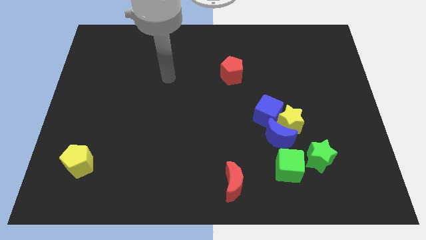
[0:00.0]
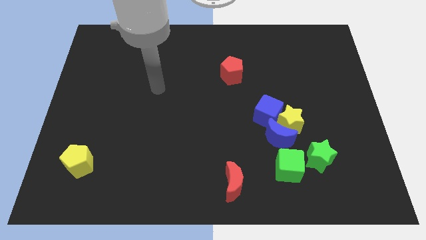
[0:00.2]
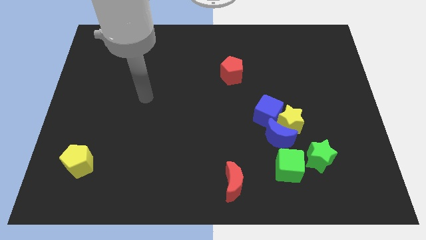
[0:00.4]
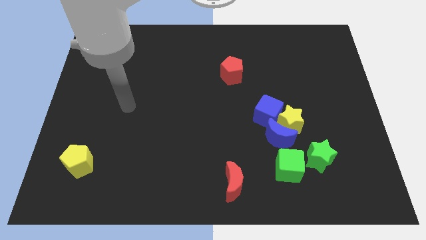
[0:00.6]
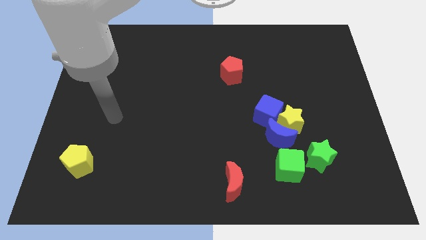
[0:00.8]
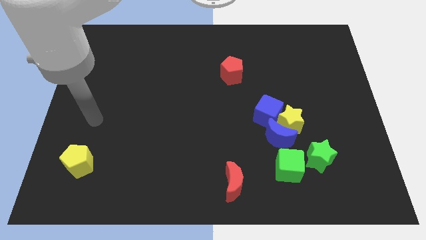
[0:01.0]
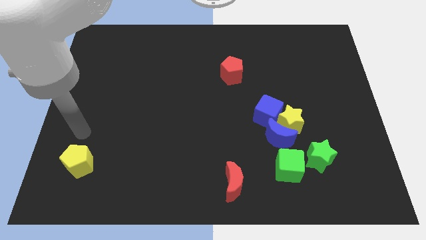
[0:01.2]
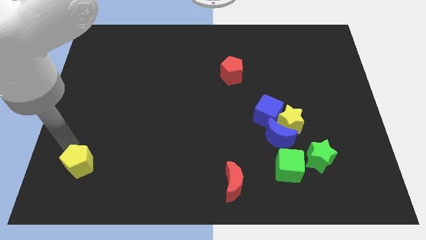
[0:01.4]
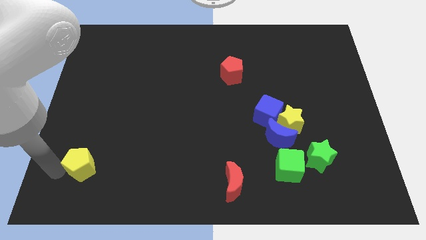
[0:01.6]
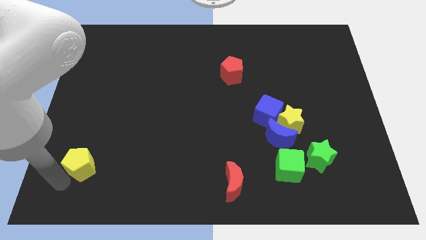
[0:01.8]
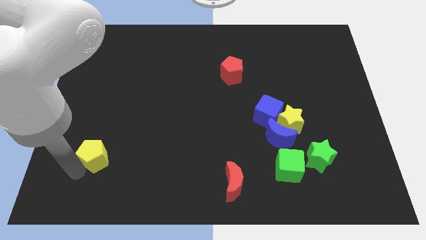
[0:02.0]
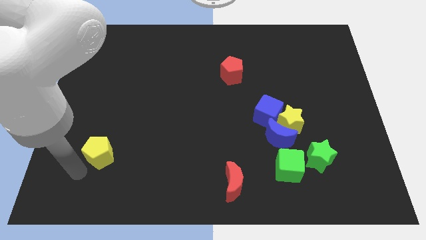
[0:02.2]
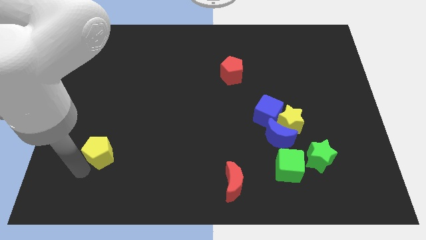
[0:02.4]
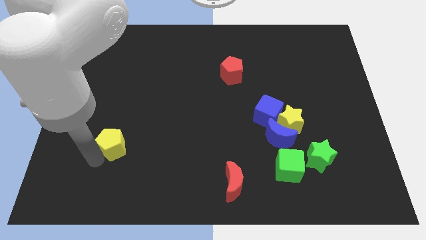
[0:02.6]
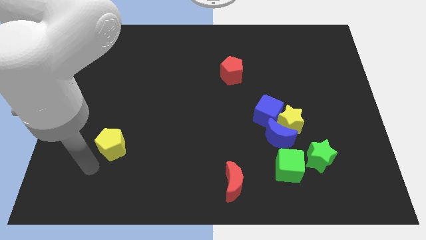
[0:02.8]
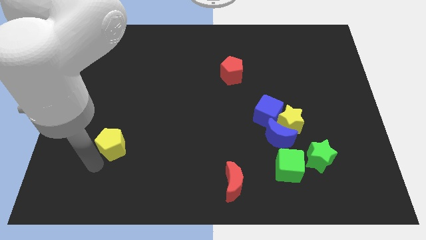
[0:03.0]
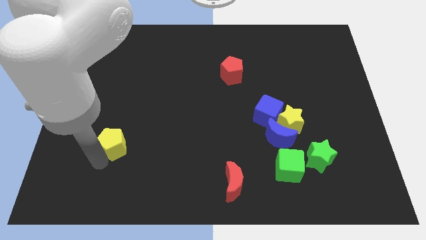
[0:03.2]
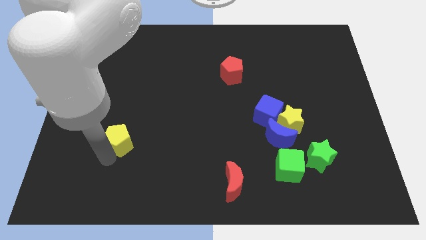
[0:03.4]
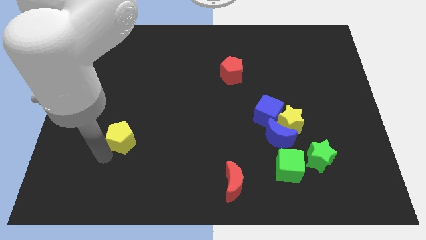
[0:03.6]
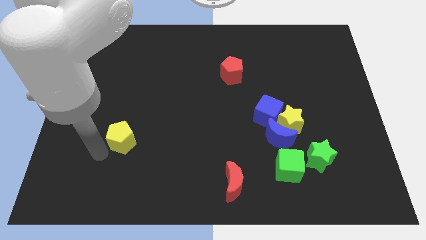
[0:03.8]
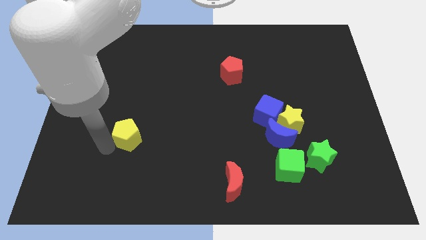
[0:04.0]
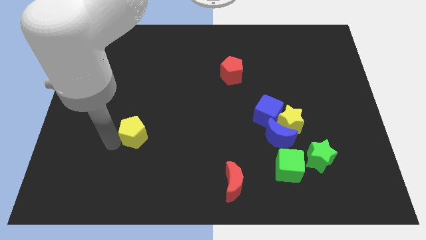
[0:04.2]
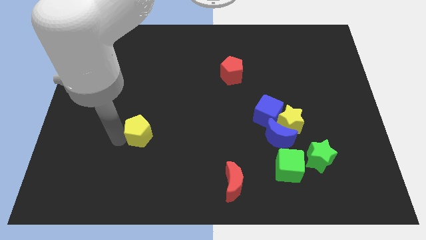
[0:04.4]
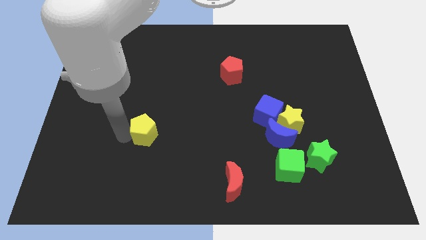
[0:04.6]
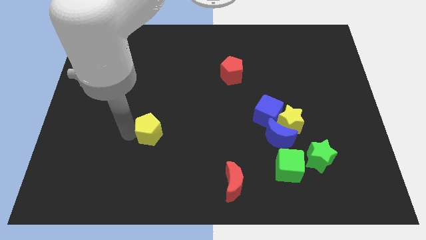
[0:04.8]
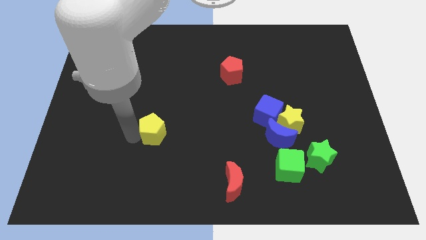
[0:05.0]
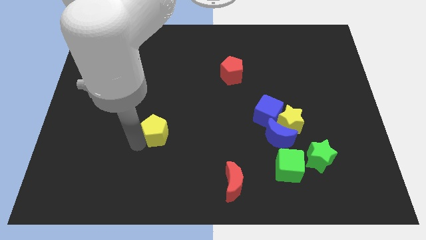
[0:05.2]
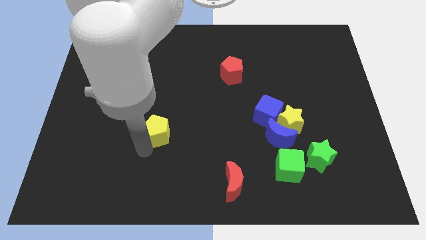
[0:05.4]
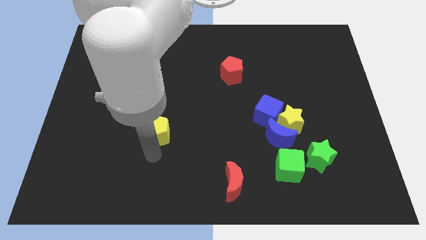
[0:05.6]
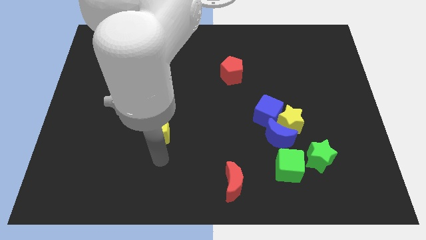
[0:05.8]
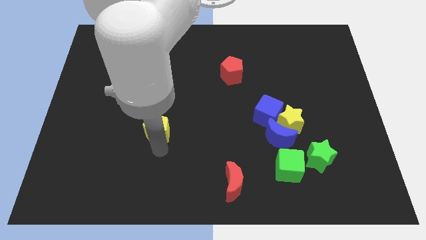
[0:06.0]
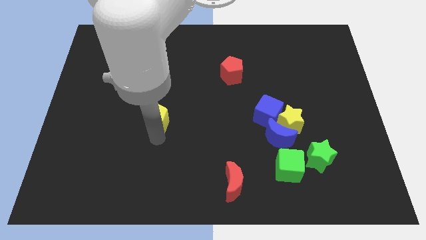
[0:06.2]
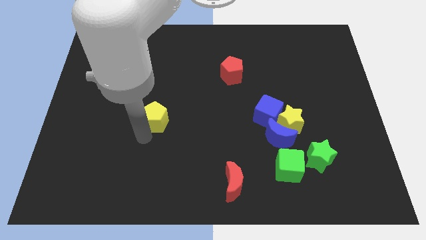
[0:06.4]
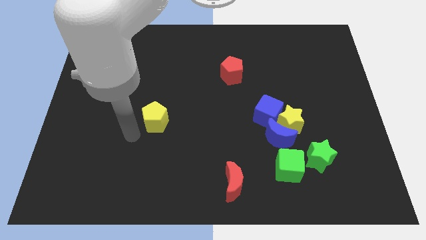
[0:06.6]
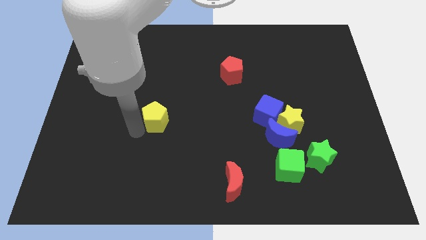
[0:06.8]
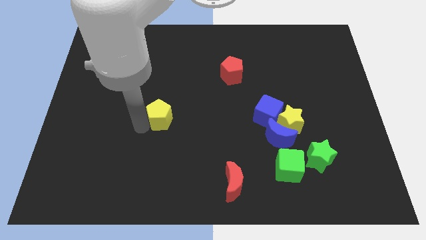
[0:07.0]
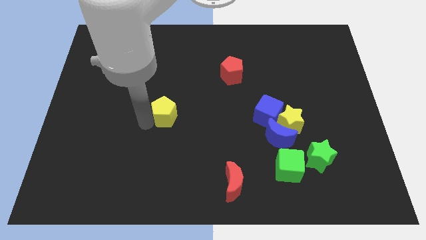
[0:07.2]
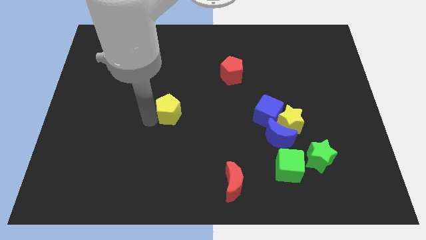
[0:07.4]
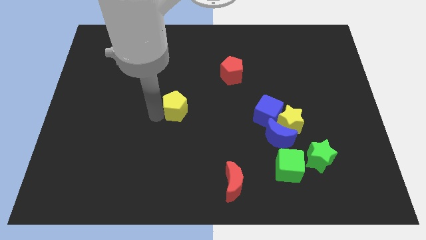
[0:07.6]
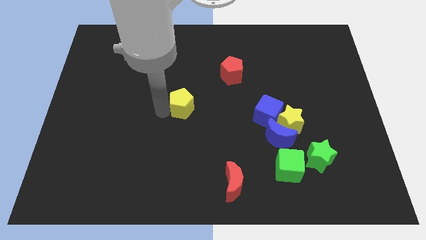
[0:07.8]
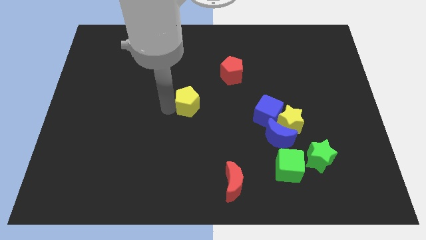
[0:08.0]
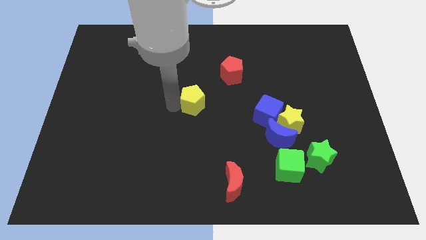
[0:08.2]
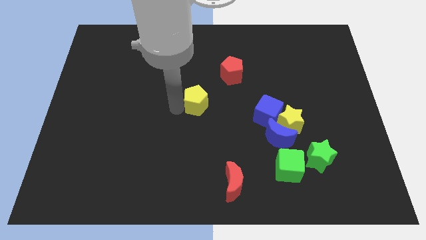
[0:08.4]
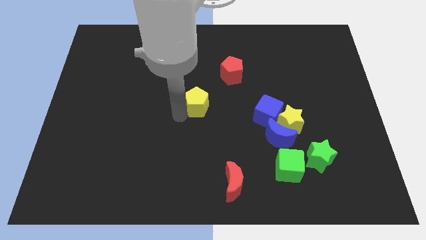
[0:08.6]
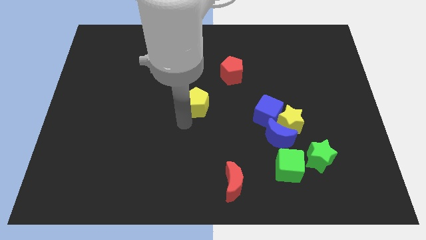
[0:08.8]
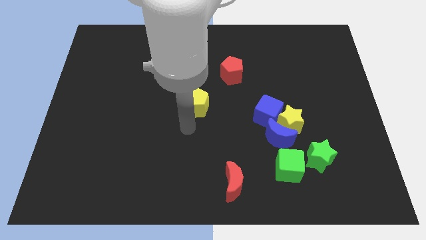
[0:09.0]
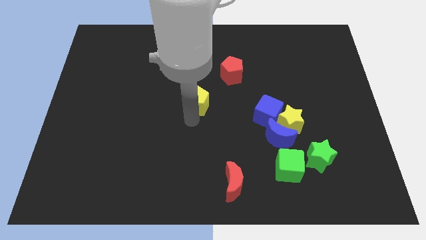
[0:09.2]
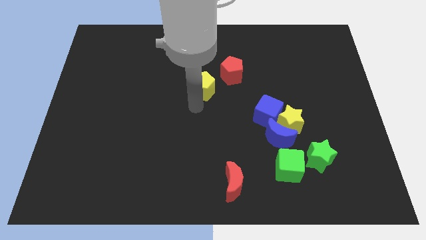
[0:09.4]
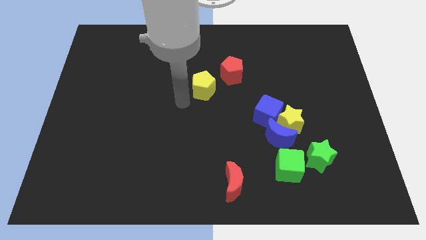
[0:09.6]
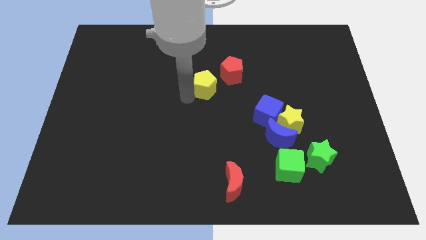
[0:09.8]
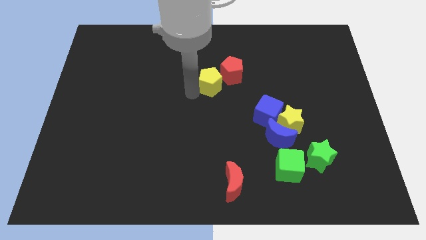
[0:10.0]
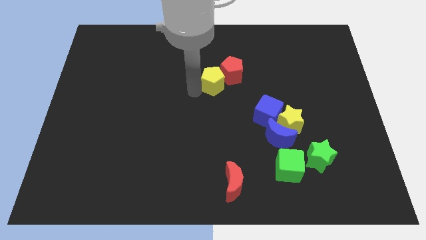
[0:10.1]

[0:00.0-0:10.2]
put the yellow pentagon close to the red pentagon

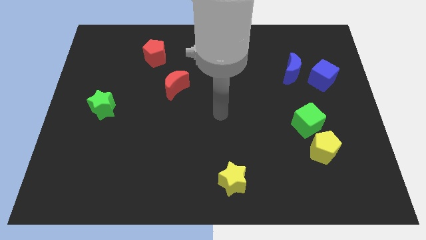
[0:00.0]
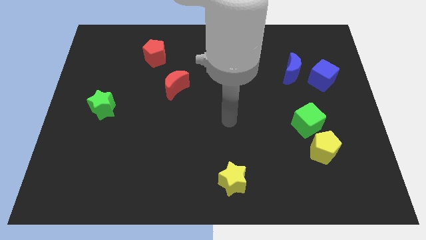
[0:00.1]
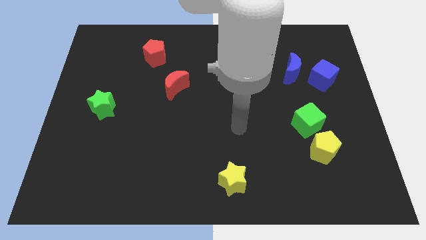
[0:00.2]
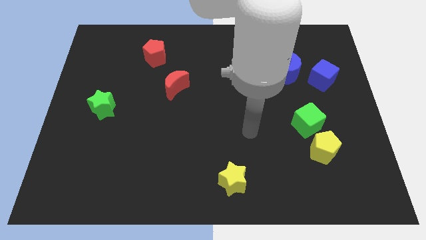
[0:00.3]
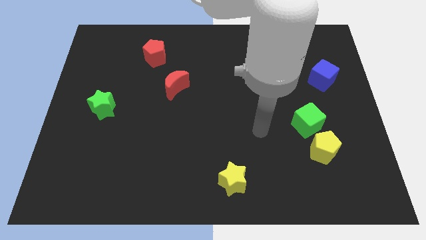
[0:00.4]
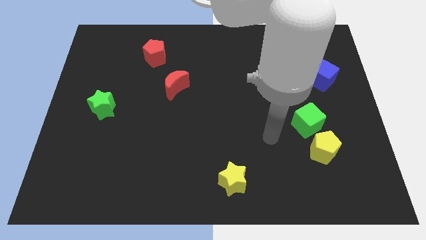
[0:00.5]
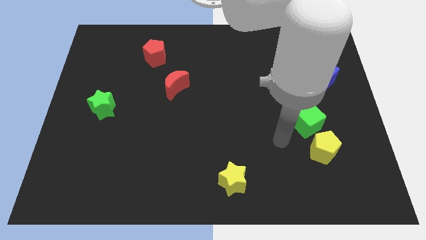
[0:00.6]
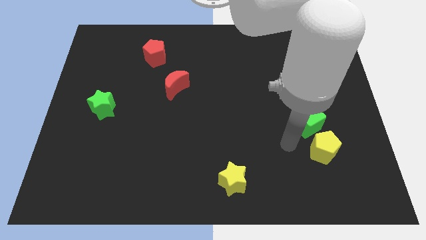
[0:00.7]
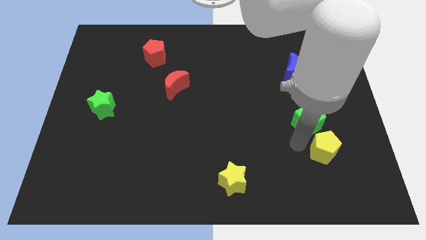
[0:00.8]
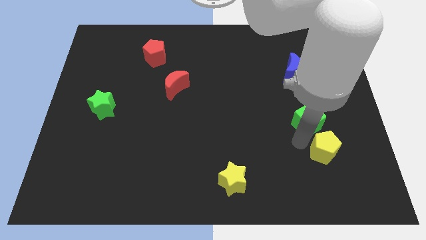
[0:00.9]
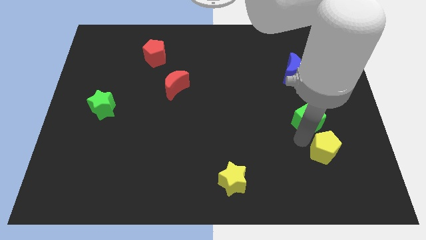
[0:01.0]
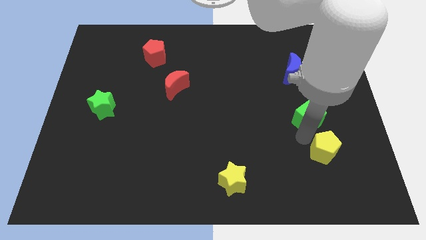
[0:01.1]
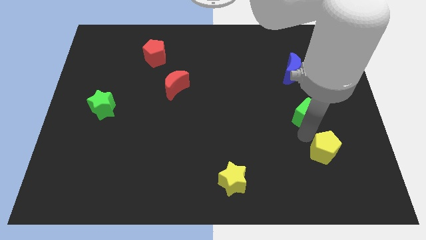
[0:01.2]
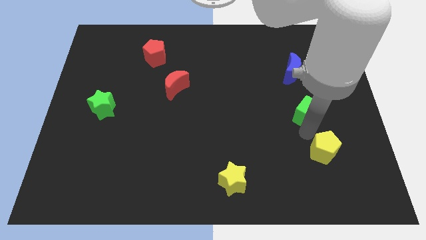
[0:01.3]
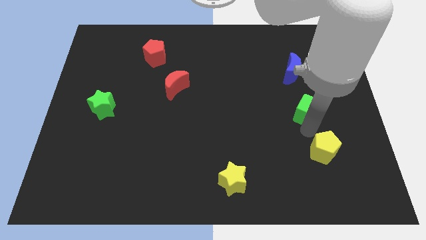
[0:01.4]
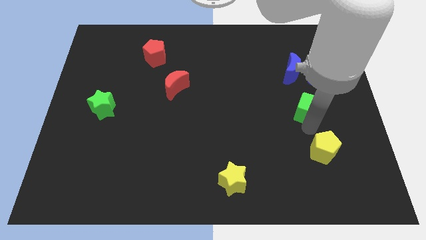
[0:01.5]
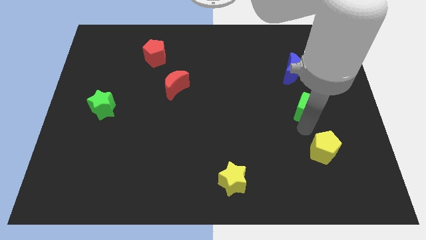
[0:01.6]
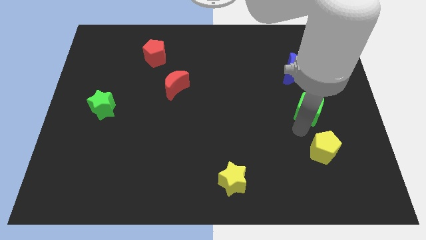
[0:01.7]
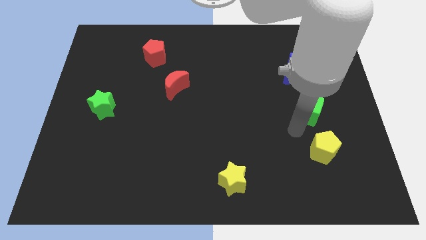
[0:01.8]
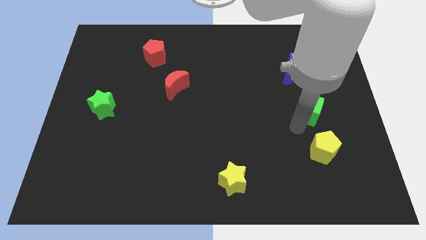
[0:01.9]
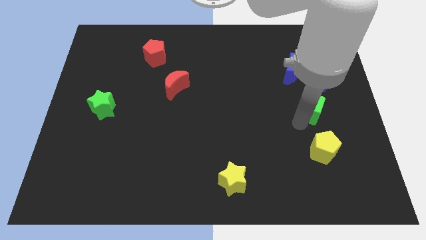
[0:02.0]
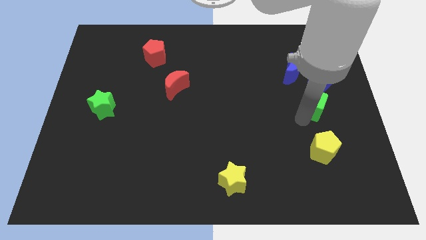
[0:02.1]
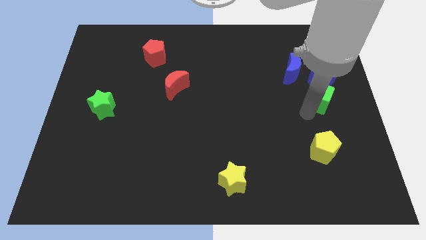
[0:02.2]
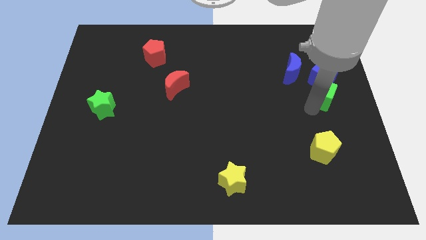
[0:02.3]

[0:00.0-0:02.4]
slide the green cube close to the blue cube
